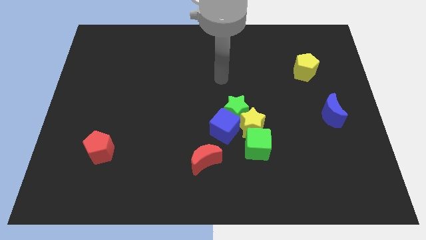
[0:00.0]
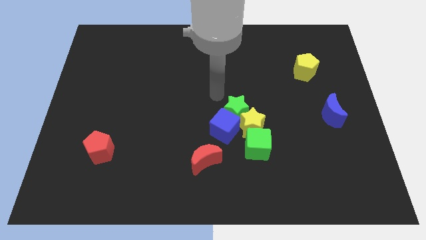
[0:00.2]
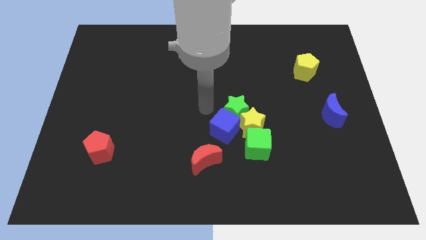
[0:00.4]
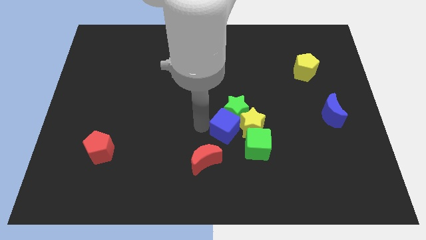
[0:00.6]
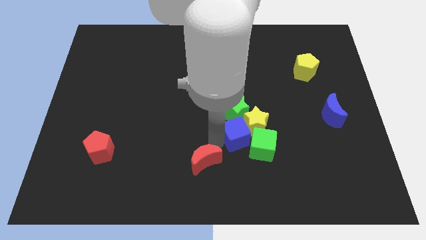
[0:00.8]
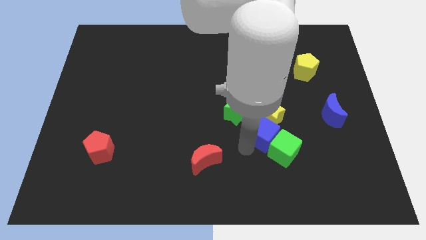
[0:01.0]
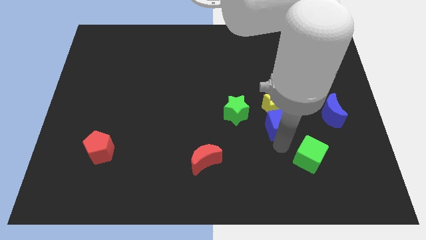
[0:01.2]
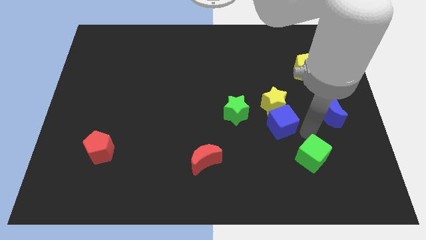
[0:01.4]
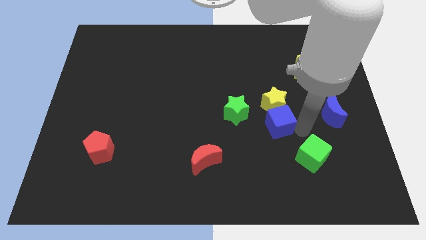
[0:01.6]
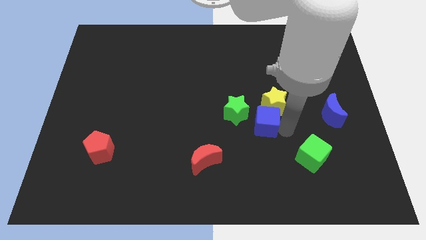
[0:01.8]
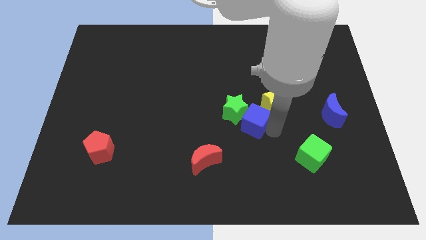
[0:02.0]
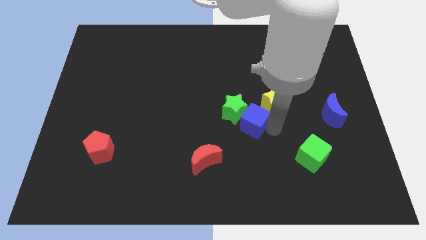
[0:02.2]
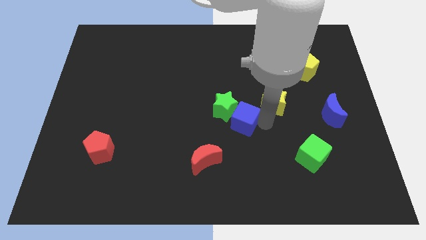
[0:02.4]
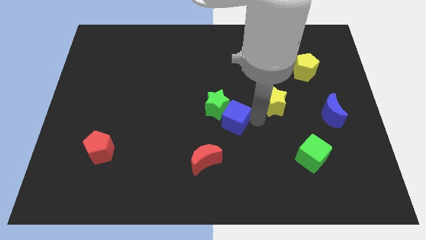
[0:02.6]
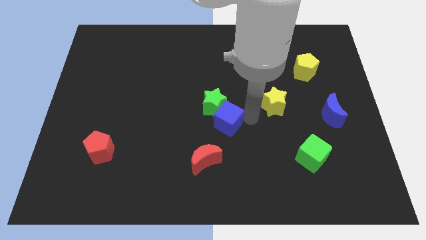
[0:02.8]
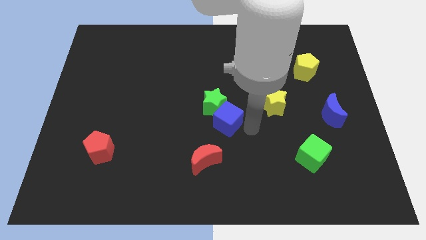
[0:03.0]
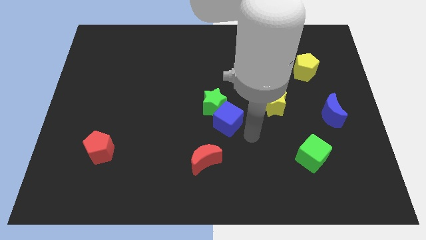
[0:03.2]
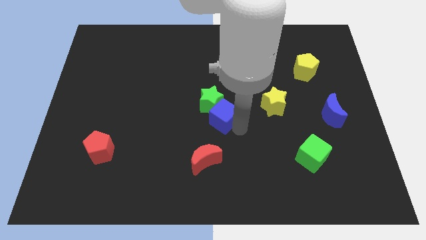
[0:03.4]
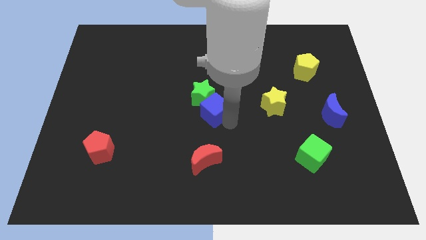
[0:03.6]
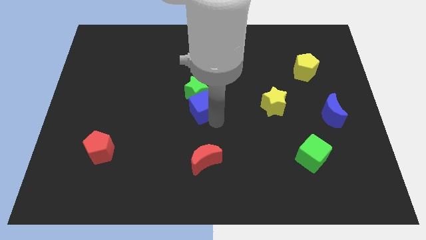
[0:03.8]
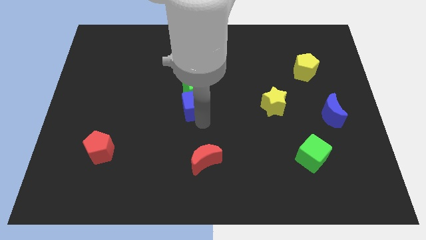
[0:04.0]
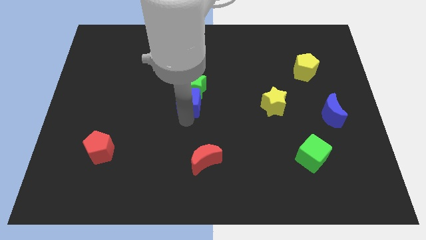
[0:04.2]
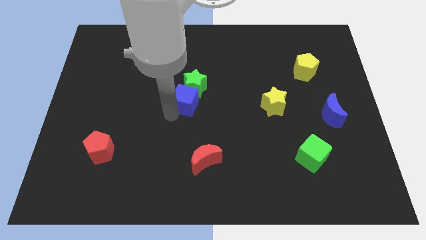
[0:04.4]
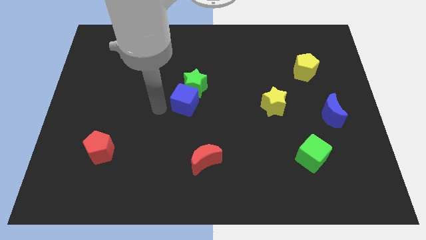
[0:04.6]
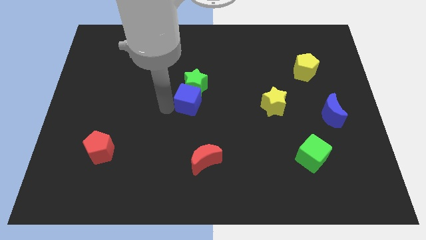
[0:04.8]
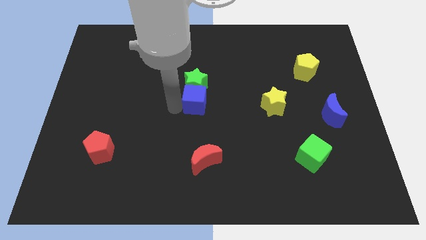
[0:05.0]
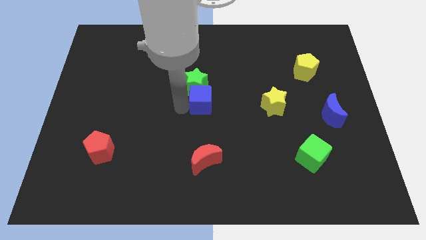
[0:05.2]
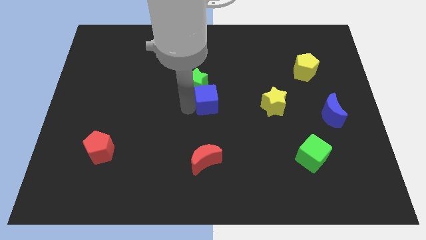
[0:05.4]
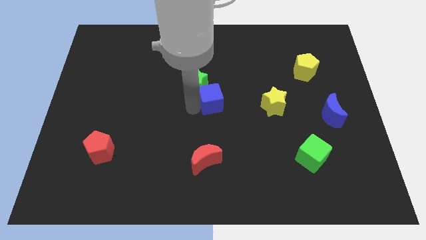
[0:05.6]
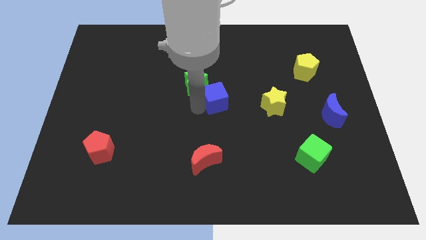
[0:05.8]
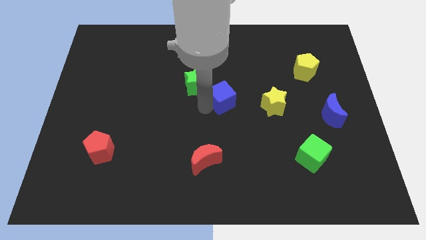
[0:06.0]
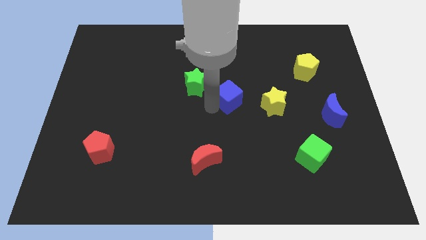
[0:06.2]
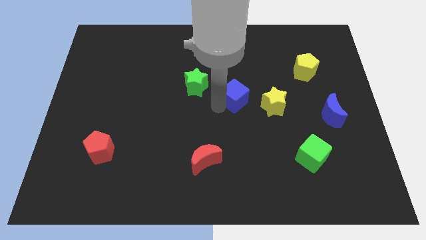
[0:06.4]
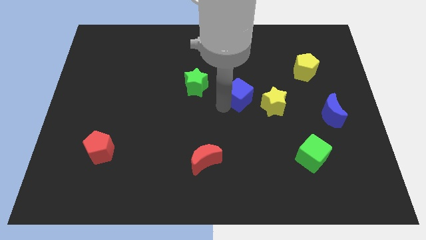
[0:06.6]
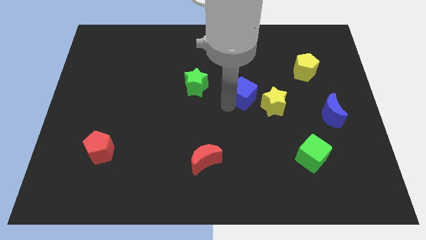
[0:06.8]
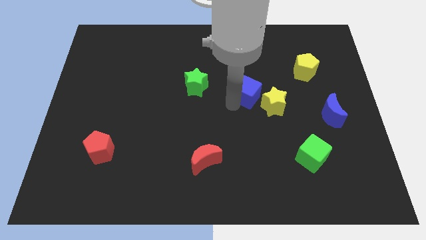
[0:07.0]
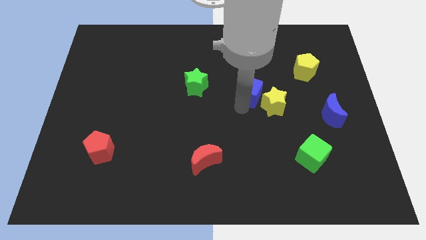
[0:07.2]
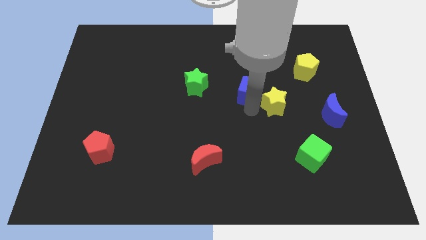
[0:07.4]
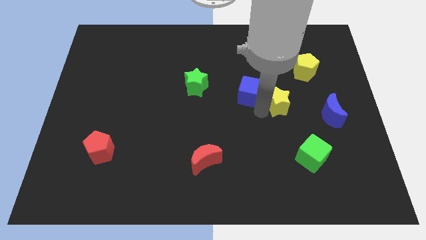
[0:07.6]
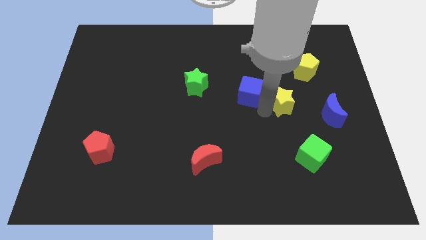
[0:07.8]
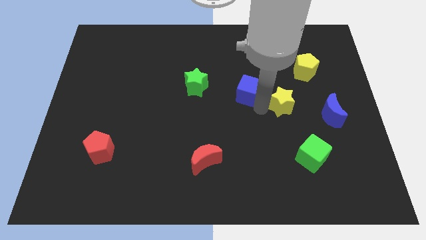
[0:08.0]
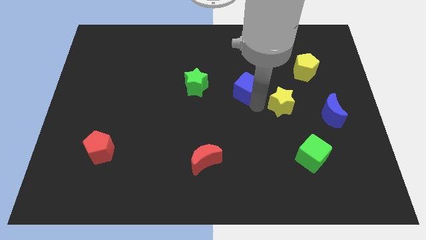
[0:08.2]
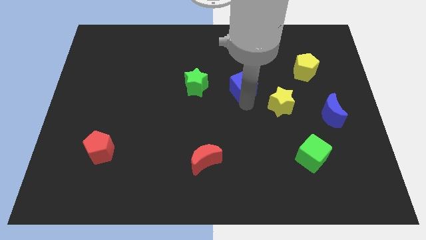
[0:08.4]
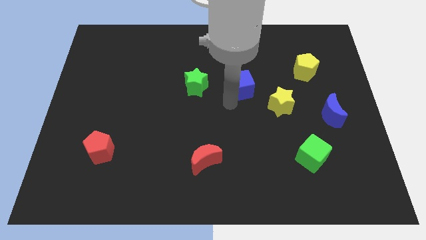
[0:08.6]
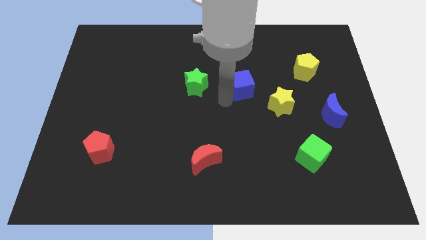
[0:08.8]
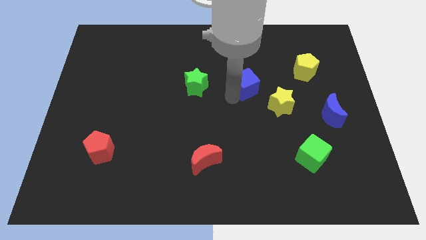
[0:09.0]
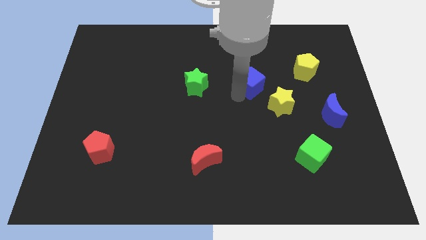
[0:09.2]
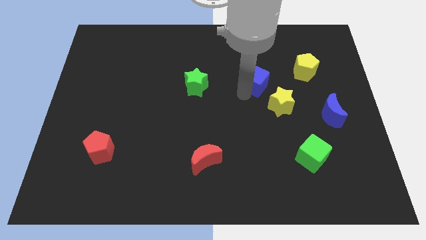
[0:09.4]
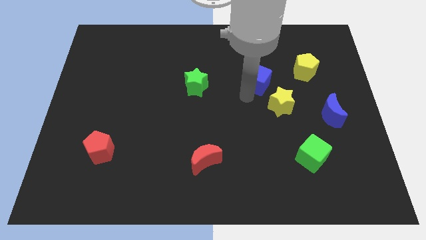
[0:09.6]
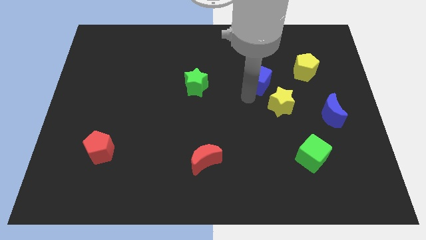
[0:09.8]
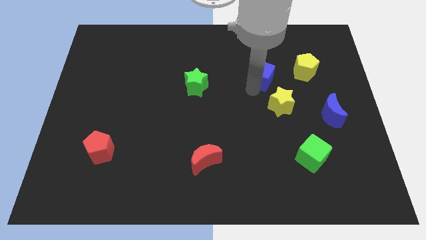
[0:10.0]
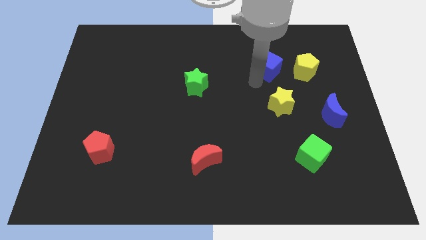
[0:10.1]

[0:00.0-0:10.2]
move the blue cube upwards and then right

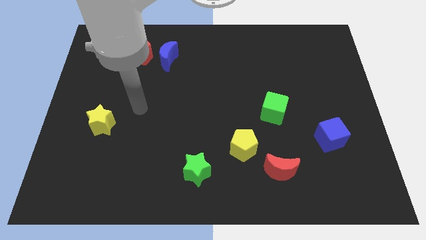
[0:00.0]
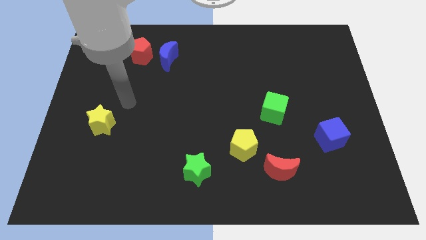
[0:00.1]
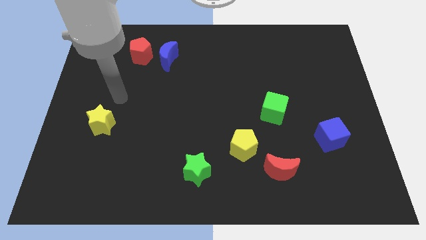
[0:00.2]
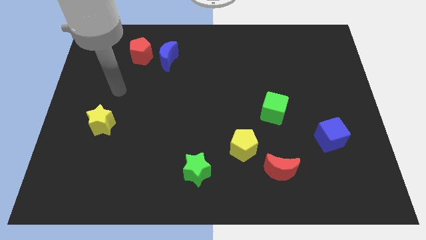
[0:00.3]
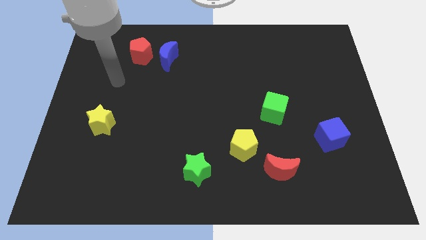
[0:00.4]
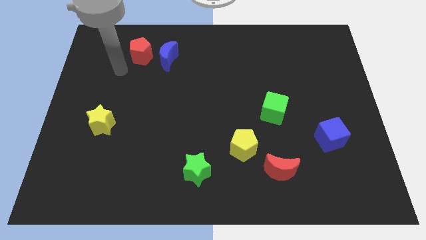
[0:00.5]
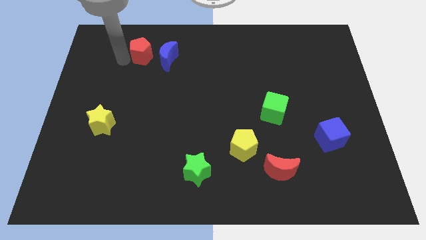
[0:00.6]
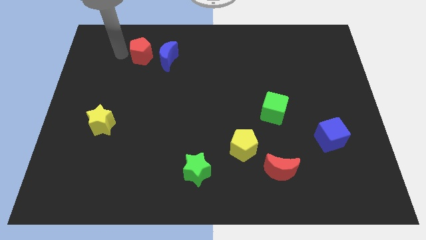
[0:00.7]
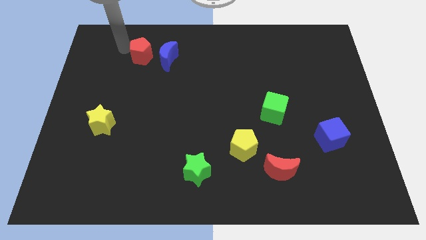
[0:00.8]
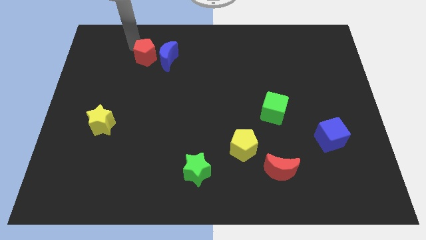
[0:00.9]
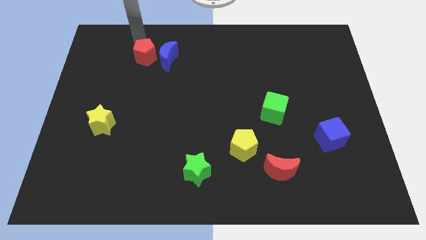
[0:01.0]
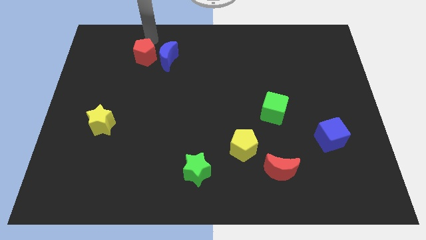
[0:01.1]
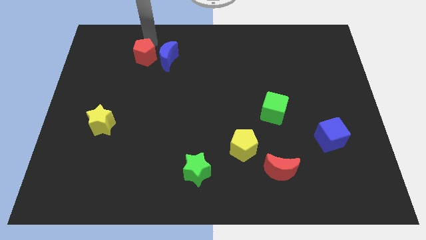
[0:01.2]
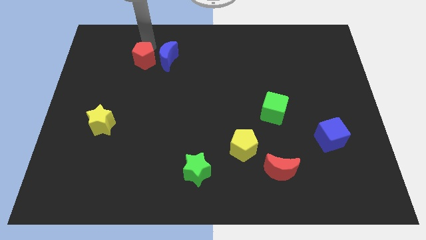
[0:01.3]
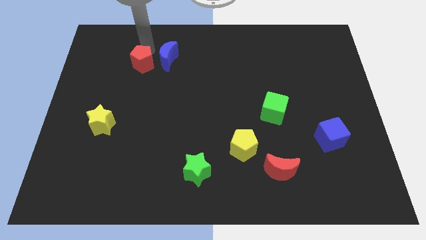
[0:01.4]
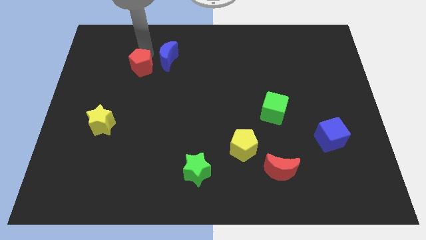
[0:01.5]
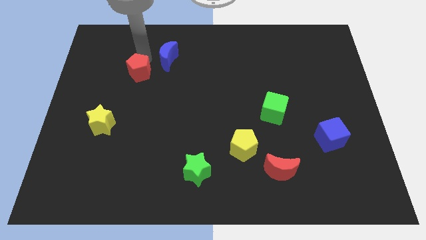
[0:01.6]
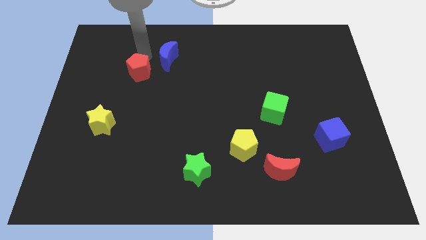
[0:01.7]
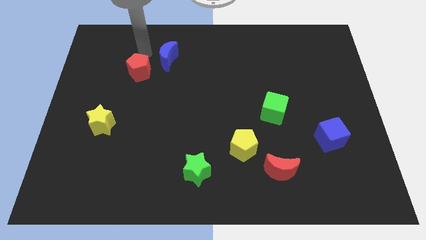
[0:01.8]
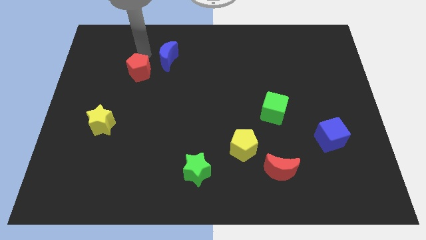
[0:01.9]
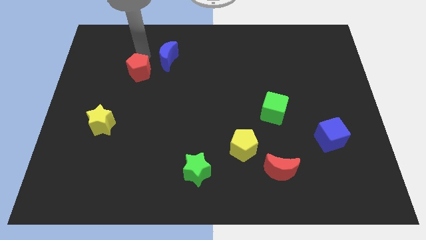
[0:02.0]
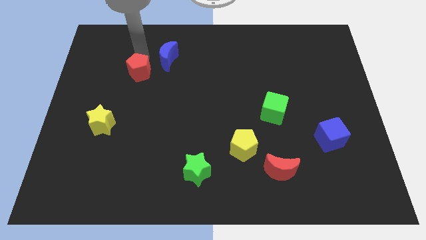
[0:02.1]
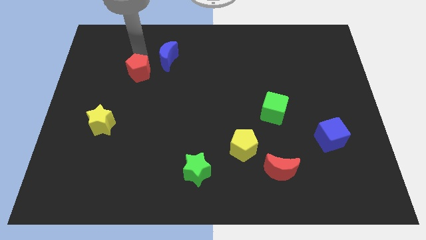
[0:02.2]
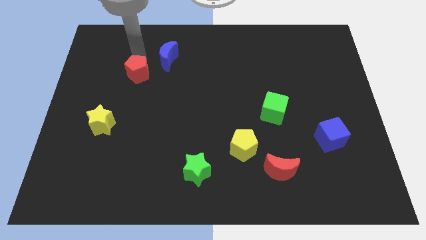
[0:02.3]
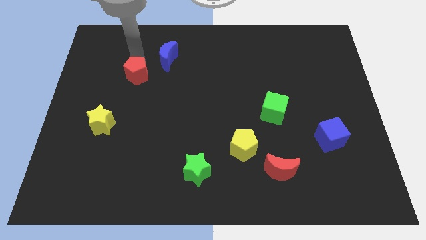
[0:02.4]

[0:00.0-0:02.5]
push the red pentagon a bit downwards

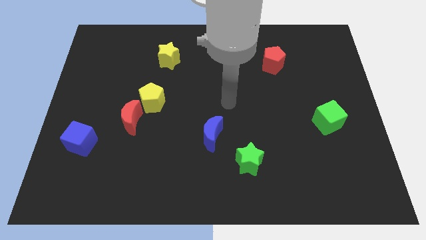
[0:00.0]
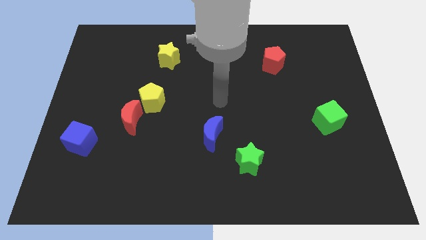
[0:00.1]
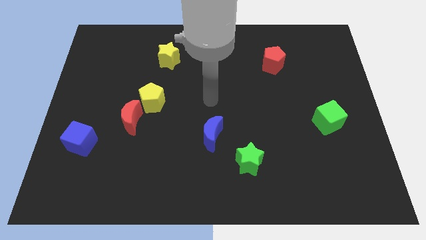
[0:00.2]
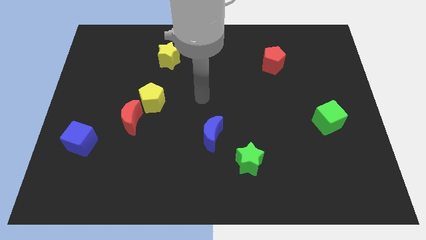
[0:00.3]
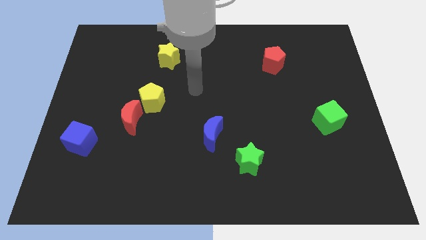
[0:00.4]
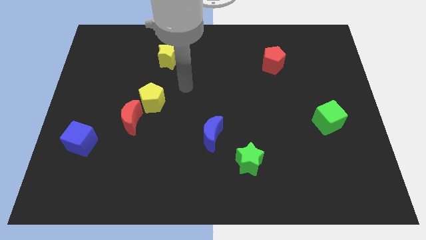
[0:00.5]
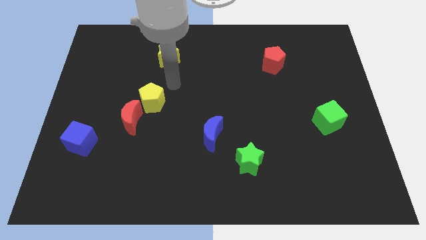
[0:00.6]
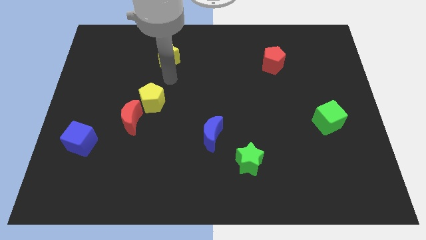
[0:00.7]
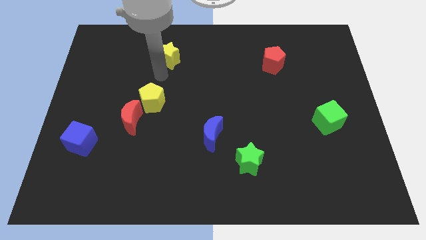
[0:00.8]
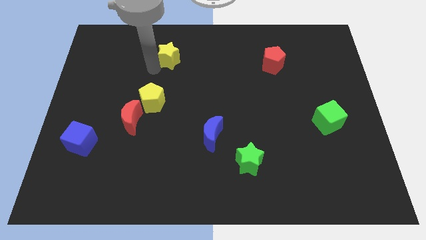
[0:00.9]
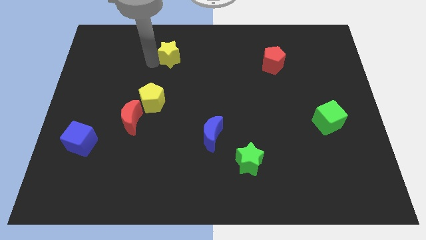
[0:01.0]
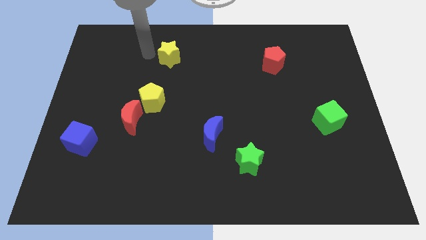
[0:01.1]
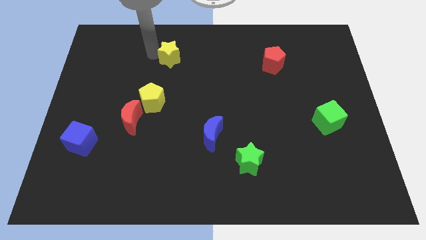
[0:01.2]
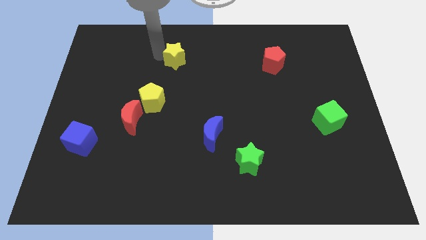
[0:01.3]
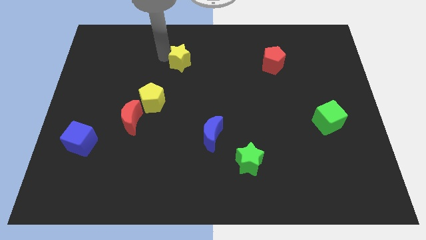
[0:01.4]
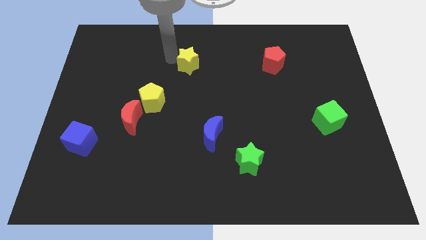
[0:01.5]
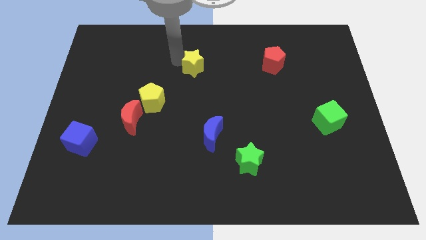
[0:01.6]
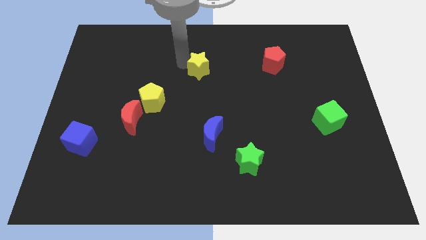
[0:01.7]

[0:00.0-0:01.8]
slide the yellow star a little bit to the right
